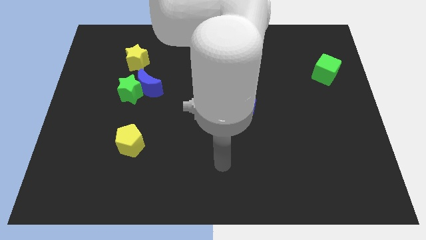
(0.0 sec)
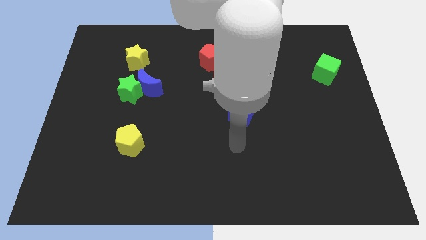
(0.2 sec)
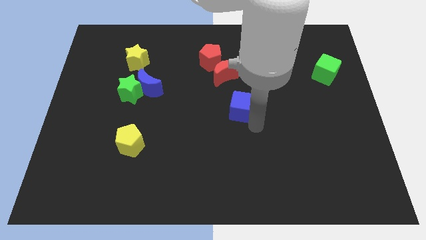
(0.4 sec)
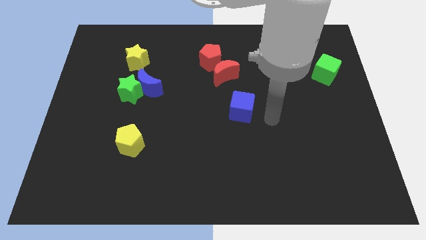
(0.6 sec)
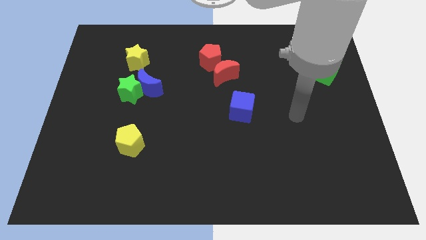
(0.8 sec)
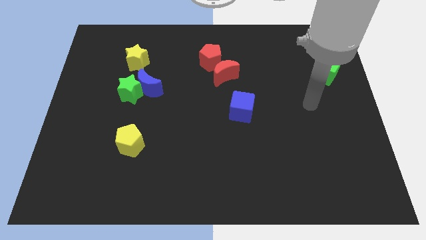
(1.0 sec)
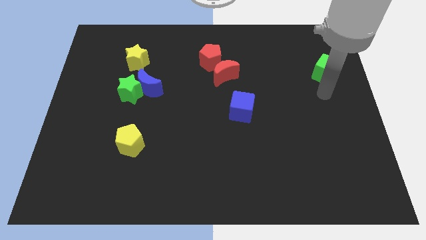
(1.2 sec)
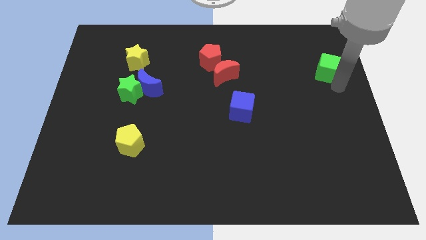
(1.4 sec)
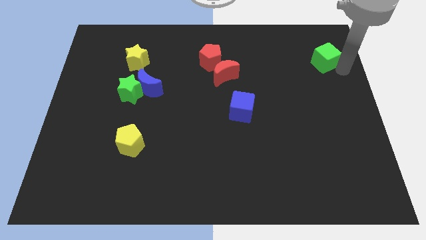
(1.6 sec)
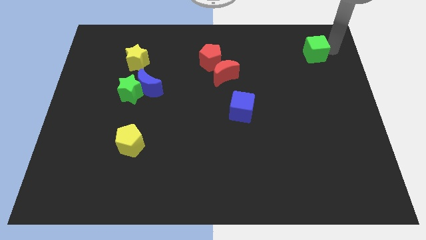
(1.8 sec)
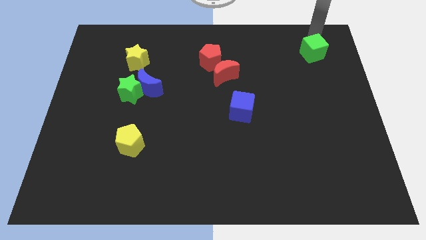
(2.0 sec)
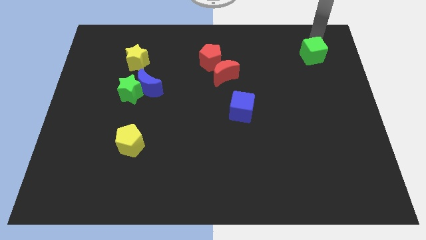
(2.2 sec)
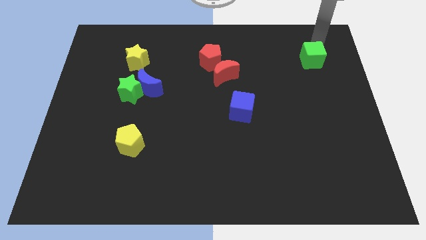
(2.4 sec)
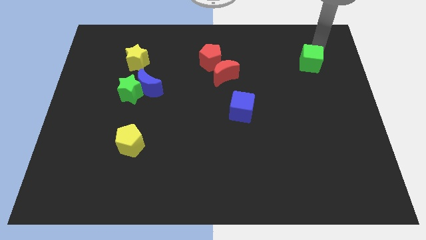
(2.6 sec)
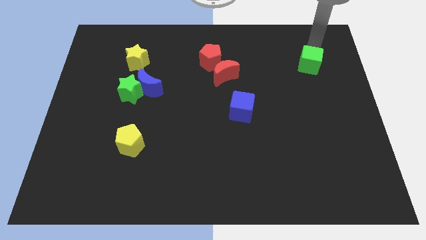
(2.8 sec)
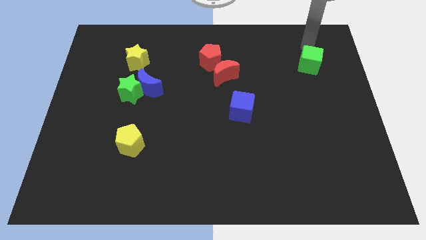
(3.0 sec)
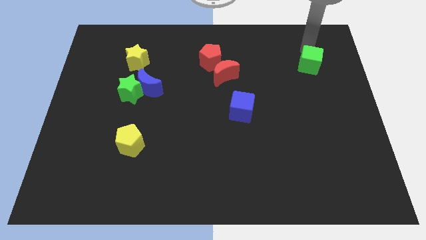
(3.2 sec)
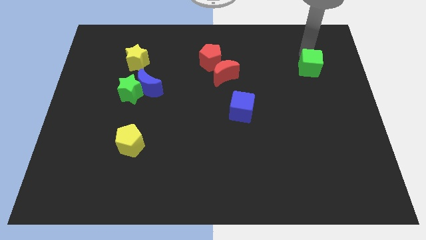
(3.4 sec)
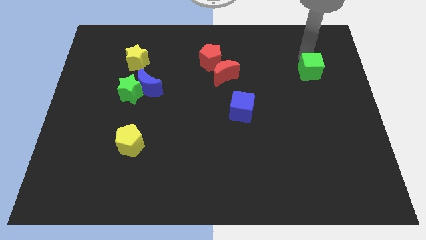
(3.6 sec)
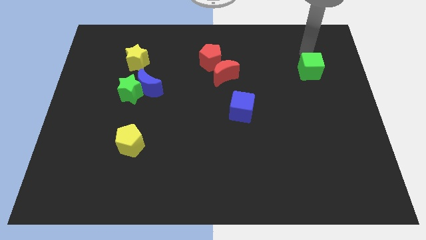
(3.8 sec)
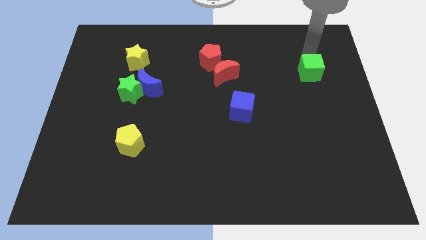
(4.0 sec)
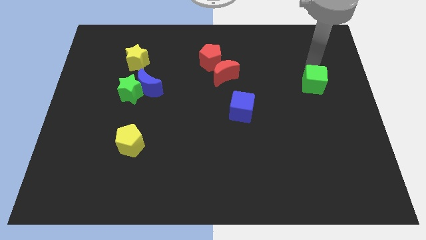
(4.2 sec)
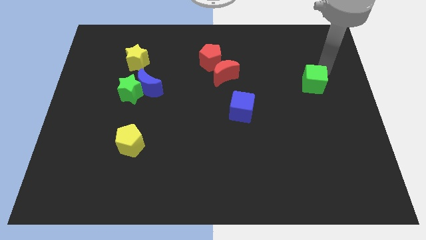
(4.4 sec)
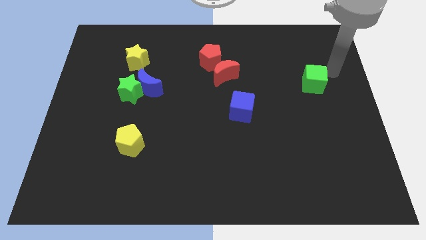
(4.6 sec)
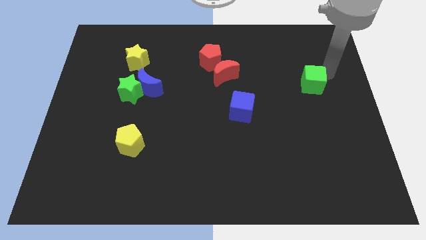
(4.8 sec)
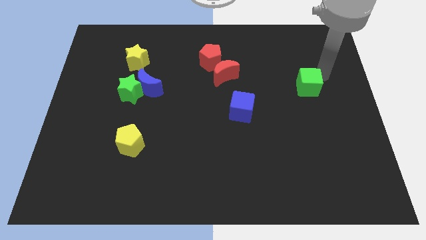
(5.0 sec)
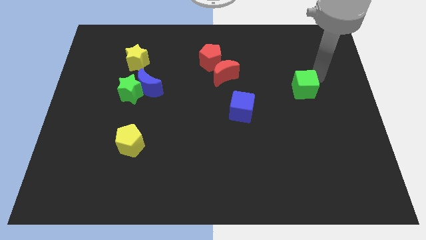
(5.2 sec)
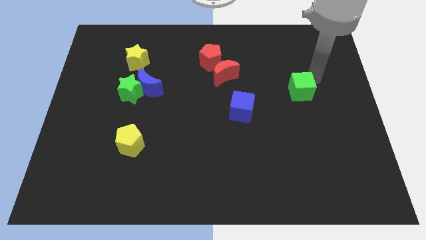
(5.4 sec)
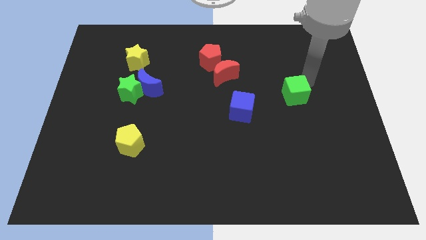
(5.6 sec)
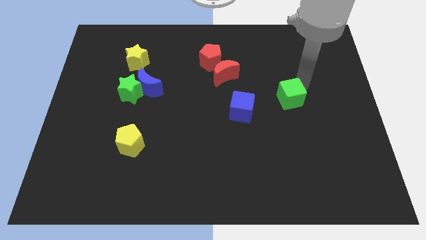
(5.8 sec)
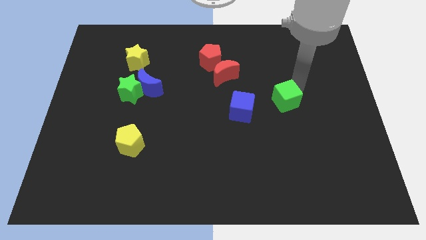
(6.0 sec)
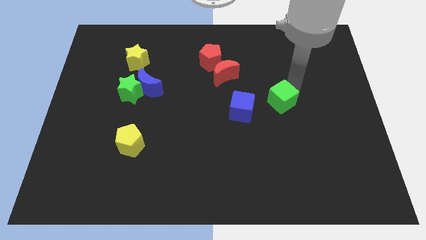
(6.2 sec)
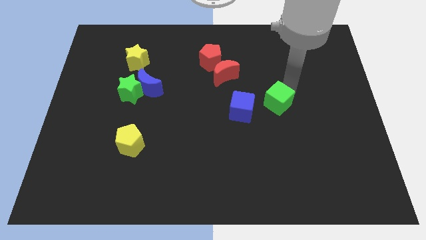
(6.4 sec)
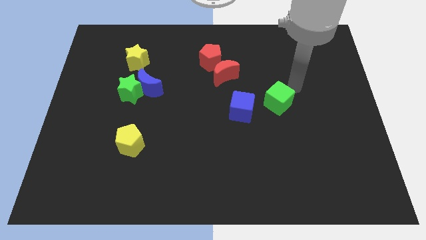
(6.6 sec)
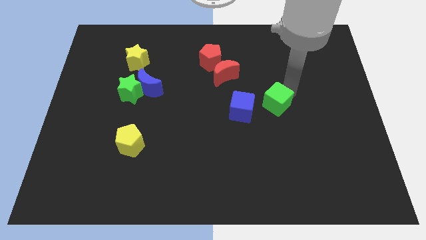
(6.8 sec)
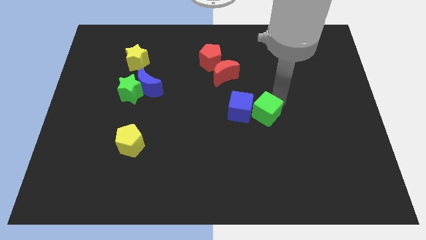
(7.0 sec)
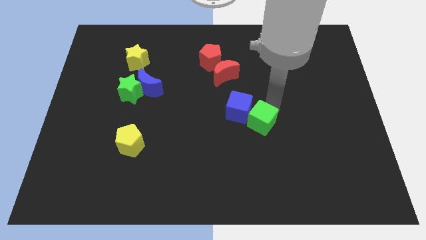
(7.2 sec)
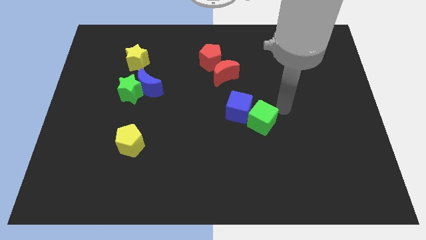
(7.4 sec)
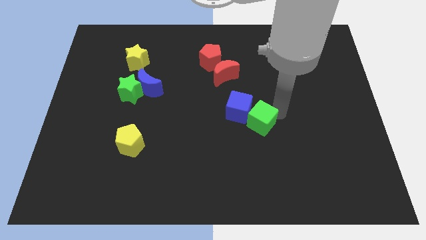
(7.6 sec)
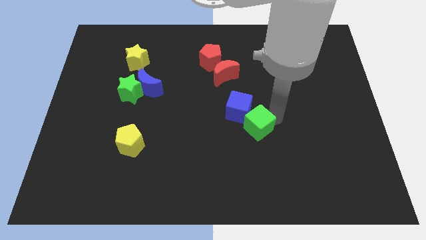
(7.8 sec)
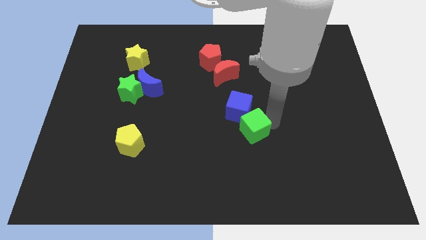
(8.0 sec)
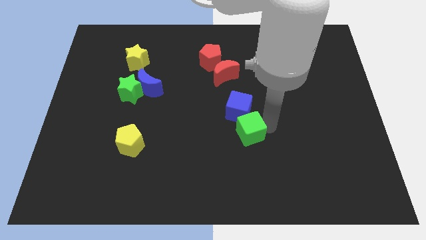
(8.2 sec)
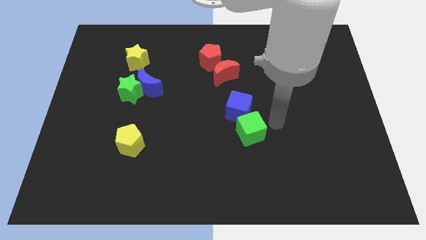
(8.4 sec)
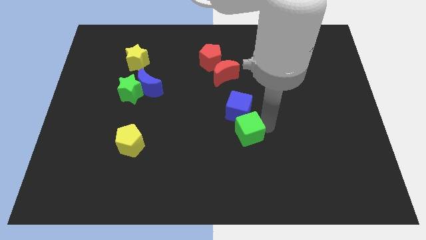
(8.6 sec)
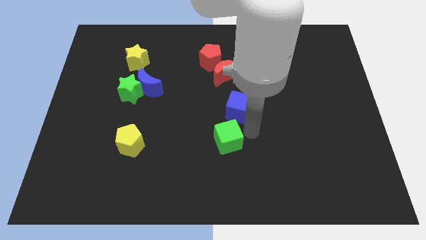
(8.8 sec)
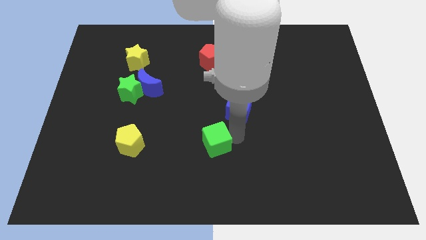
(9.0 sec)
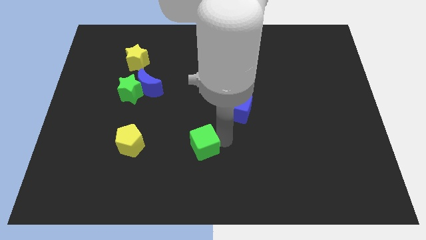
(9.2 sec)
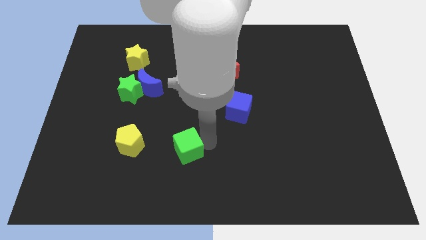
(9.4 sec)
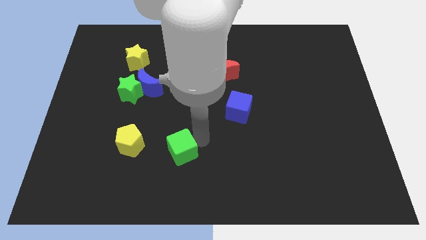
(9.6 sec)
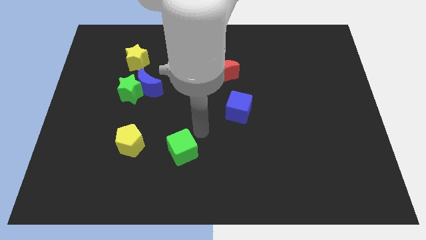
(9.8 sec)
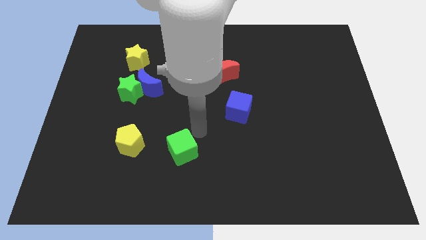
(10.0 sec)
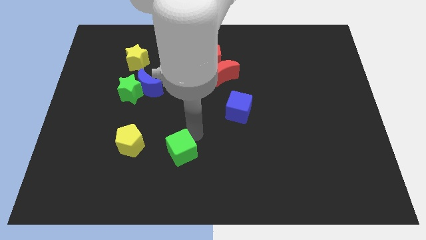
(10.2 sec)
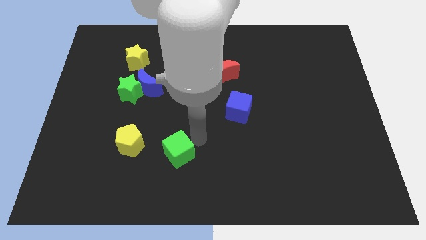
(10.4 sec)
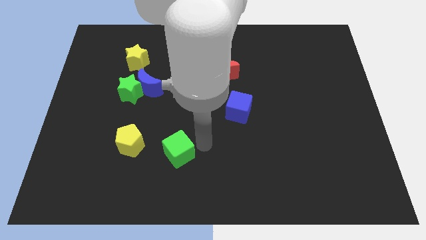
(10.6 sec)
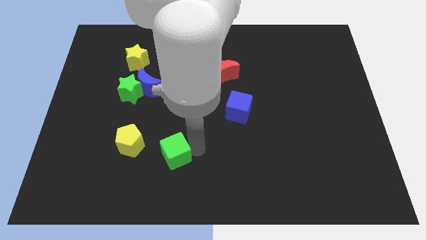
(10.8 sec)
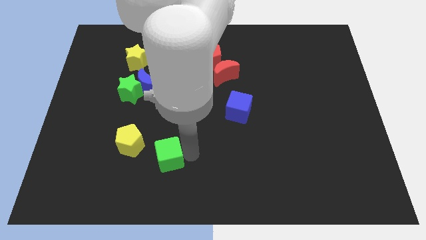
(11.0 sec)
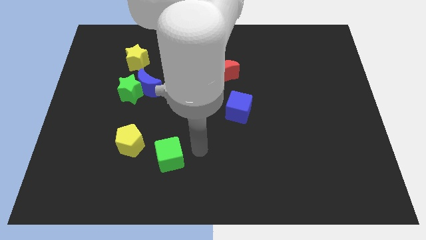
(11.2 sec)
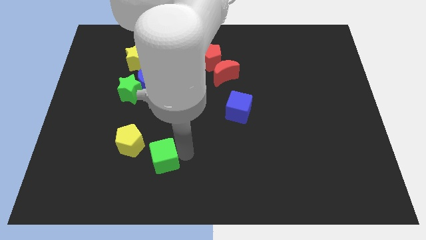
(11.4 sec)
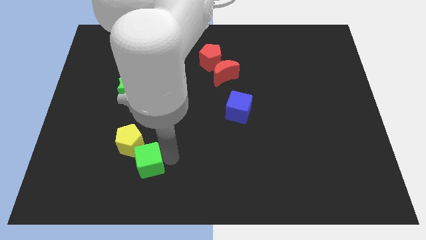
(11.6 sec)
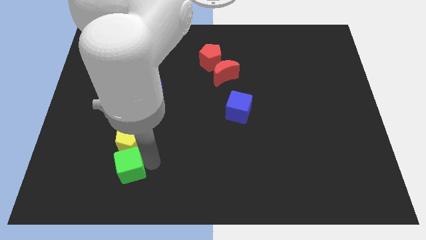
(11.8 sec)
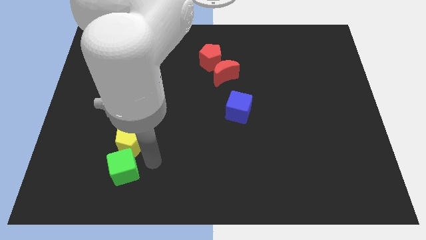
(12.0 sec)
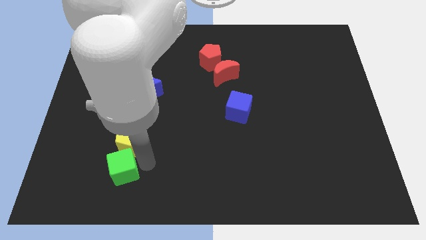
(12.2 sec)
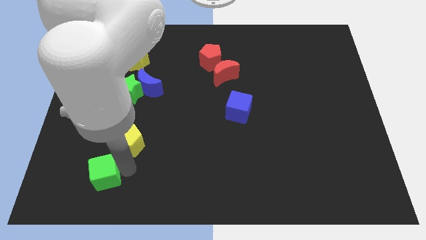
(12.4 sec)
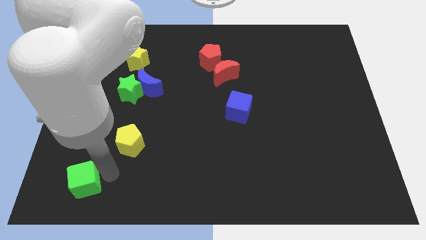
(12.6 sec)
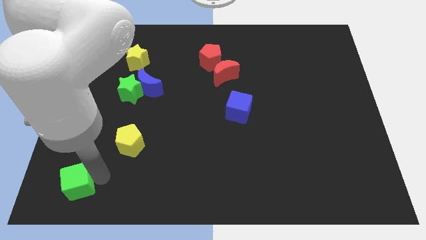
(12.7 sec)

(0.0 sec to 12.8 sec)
slide the green cube to the bottom left corner
